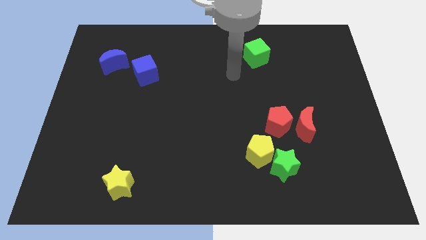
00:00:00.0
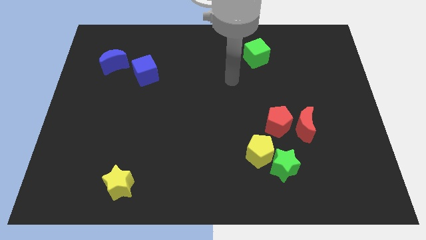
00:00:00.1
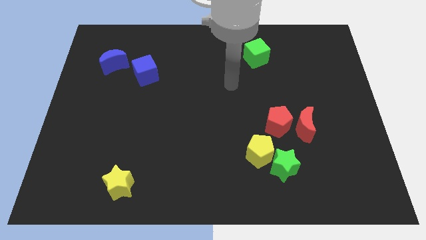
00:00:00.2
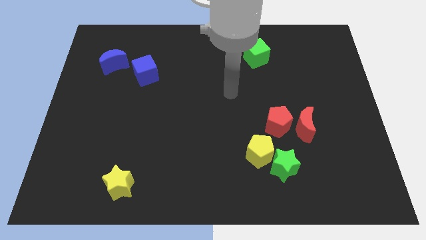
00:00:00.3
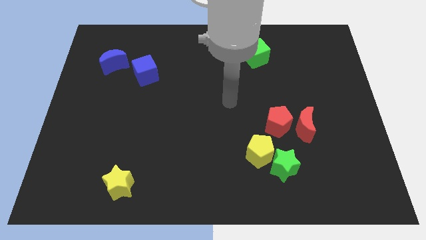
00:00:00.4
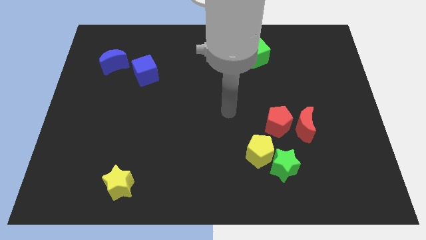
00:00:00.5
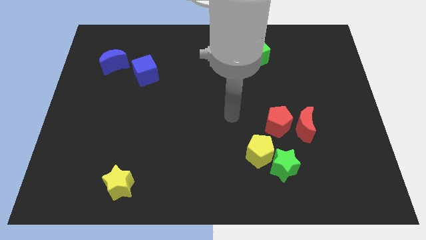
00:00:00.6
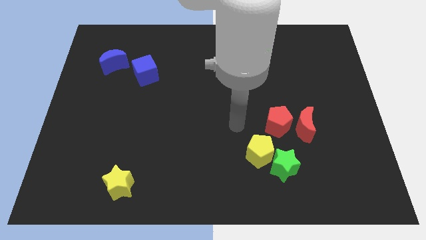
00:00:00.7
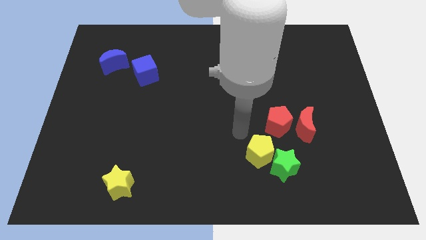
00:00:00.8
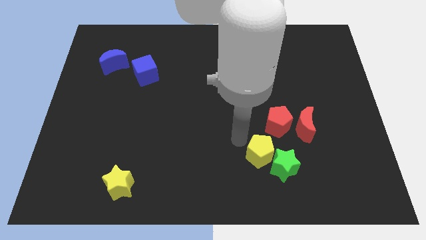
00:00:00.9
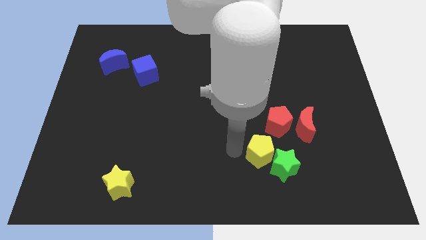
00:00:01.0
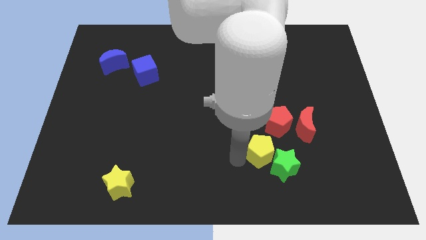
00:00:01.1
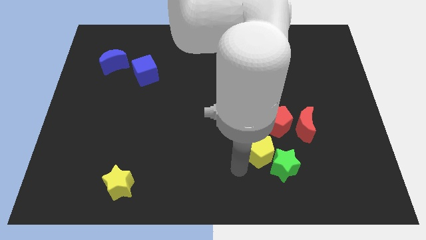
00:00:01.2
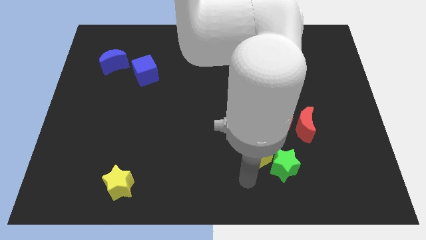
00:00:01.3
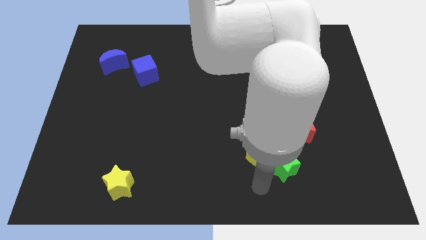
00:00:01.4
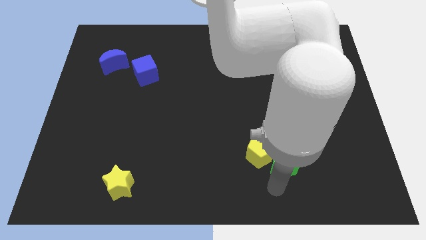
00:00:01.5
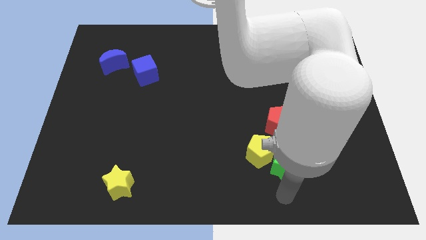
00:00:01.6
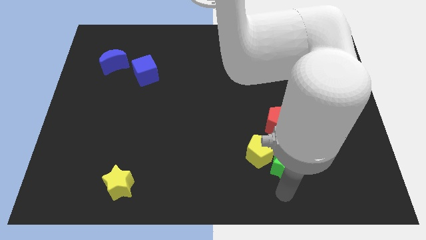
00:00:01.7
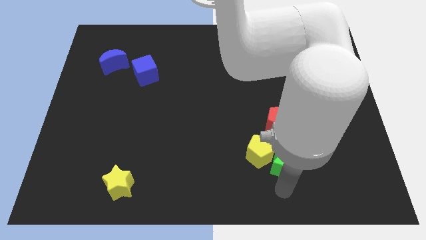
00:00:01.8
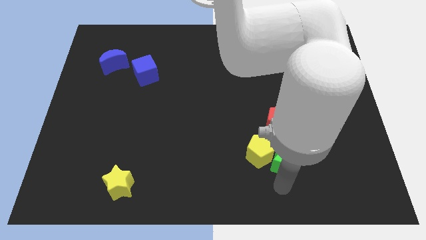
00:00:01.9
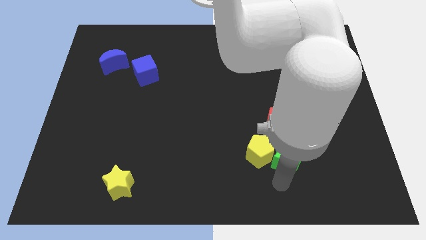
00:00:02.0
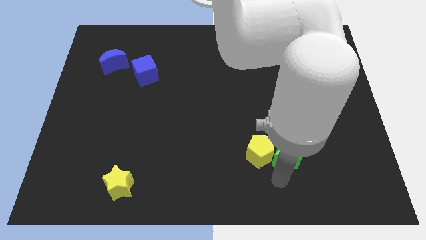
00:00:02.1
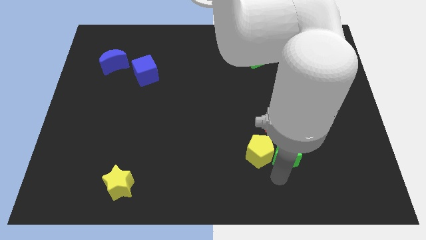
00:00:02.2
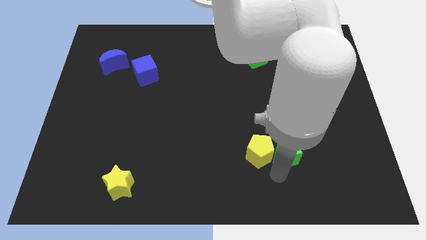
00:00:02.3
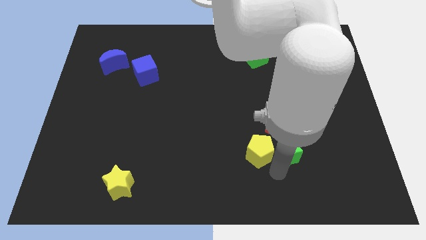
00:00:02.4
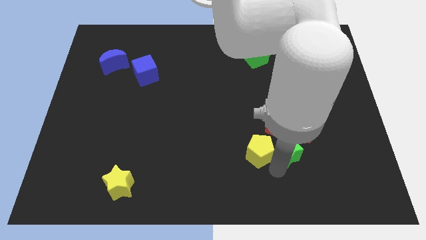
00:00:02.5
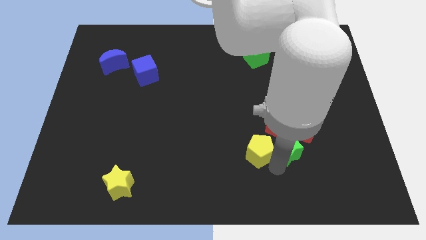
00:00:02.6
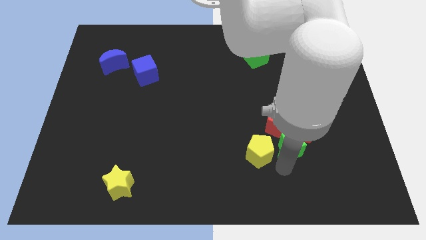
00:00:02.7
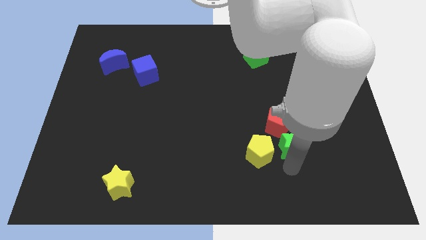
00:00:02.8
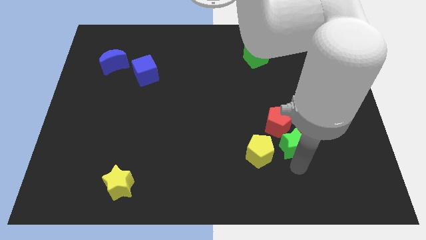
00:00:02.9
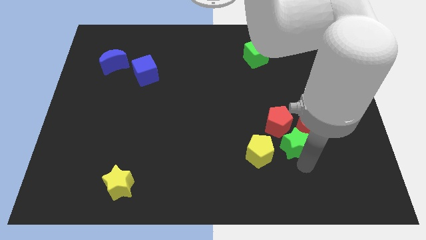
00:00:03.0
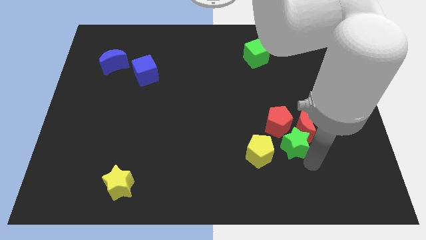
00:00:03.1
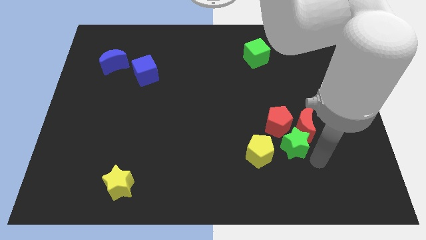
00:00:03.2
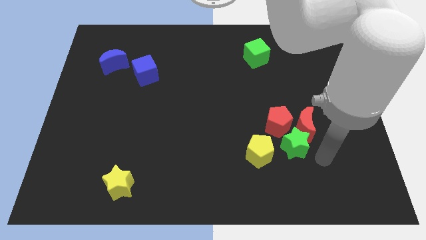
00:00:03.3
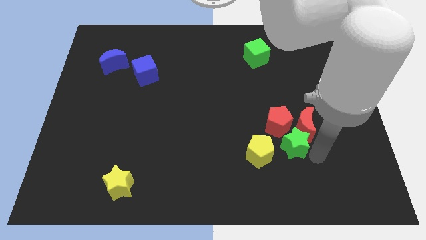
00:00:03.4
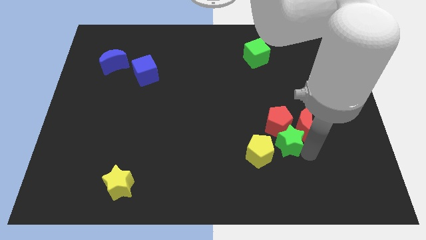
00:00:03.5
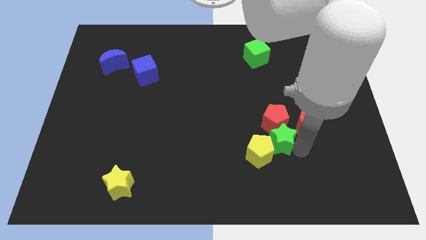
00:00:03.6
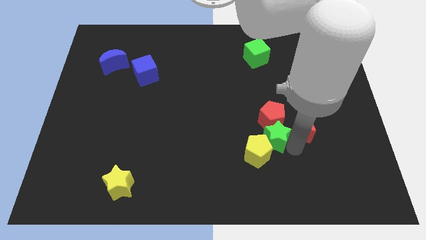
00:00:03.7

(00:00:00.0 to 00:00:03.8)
move the green star somewhat up

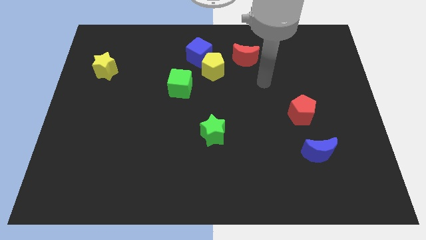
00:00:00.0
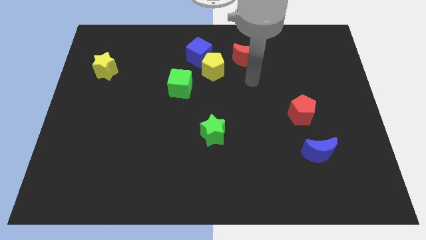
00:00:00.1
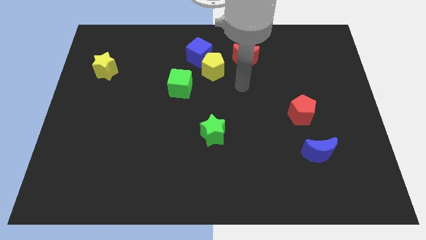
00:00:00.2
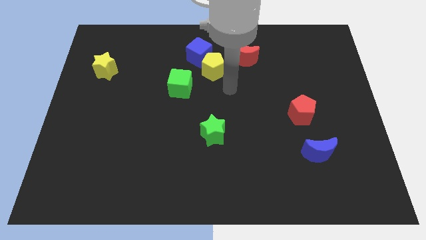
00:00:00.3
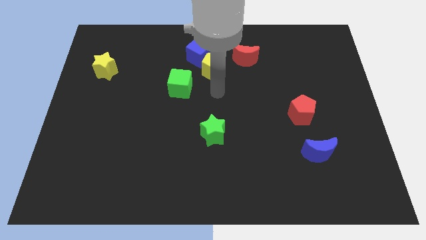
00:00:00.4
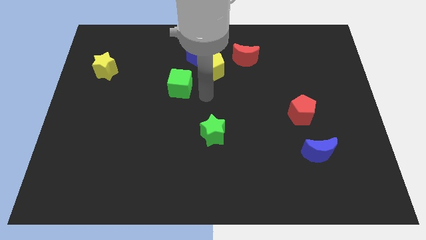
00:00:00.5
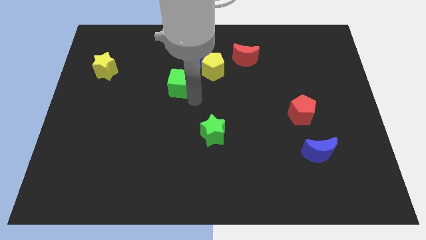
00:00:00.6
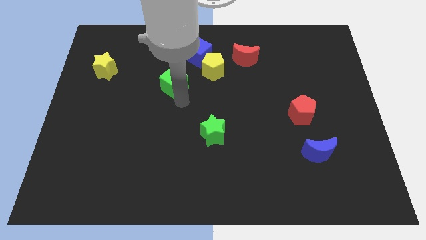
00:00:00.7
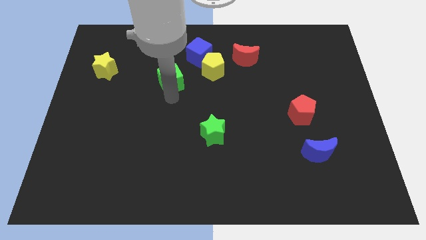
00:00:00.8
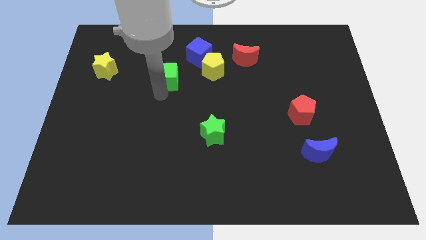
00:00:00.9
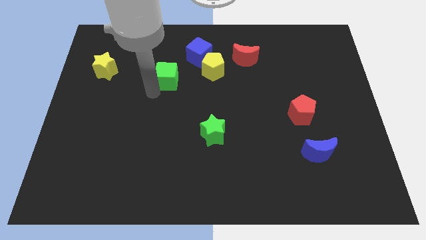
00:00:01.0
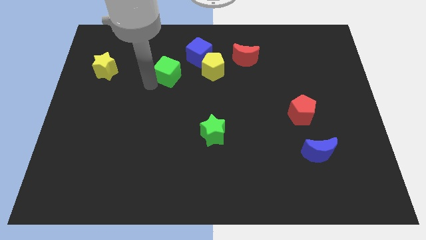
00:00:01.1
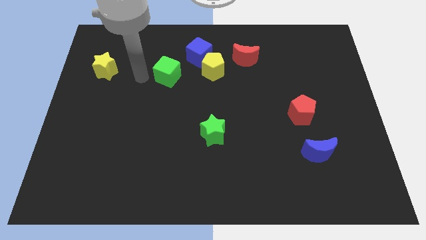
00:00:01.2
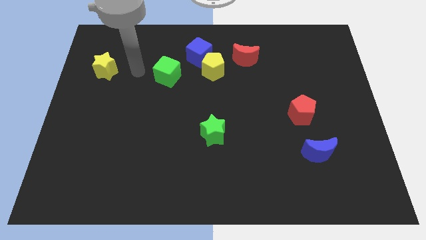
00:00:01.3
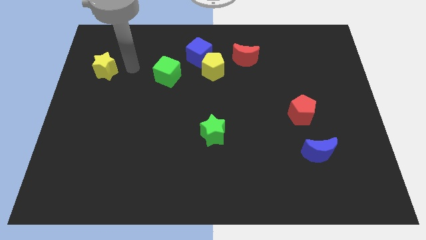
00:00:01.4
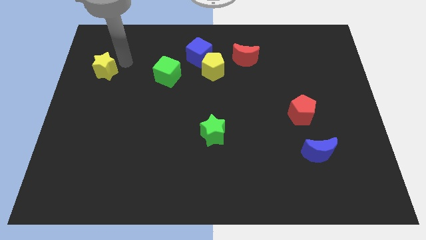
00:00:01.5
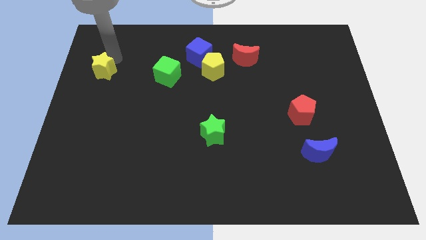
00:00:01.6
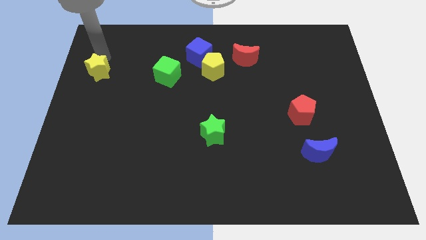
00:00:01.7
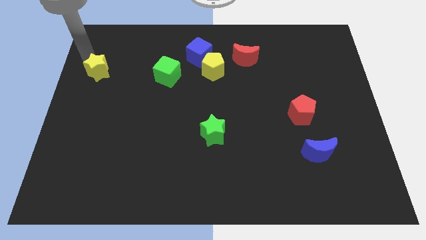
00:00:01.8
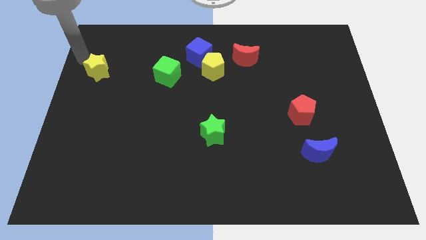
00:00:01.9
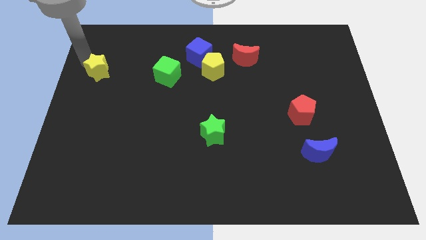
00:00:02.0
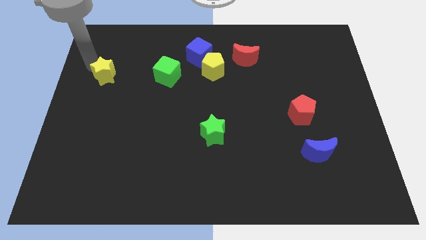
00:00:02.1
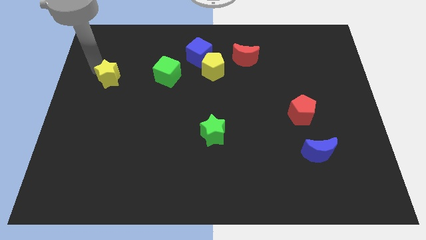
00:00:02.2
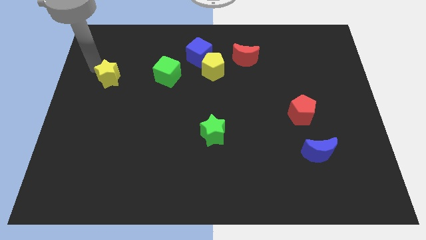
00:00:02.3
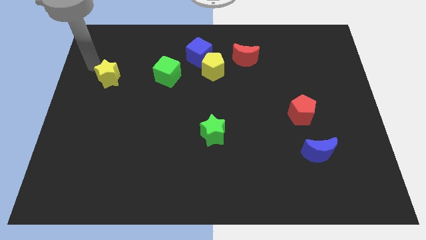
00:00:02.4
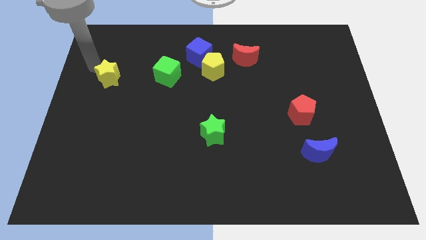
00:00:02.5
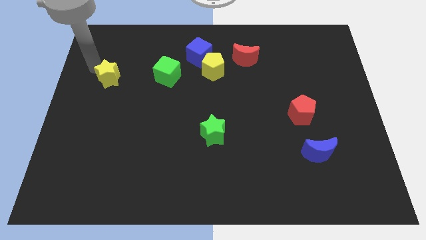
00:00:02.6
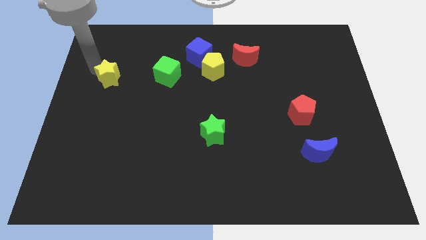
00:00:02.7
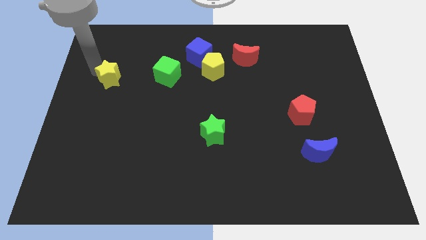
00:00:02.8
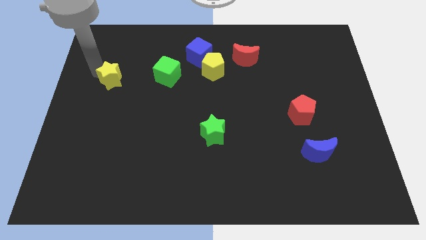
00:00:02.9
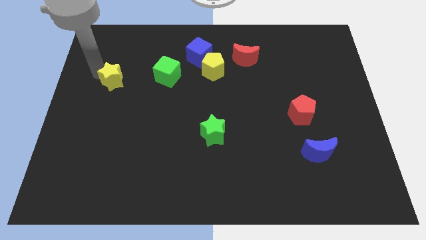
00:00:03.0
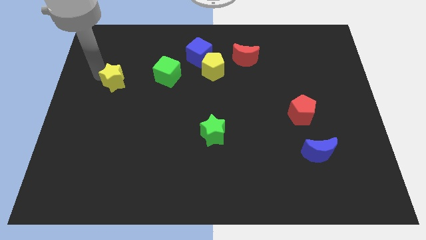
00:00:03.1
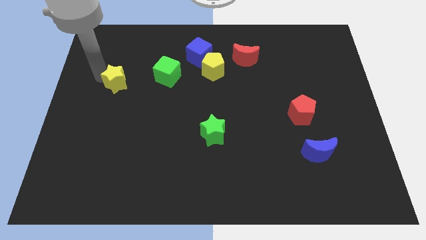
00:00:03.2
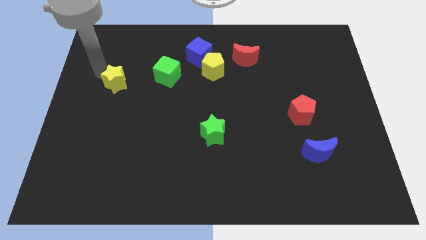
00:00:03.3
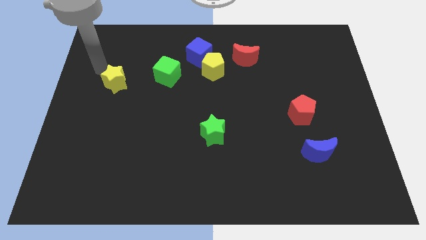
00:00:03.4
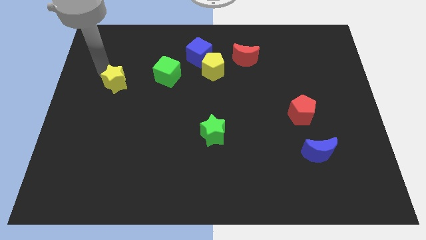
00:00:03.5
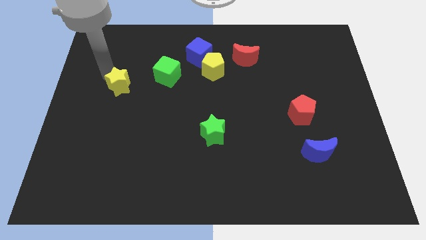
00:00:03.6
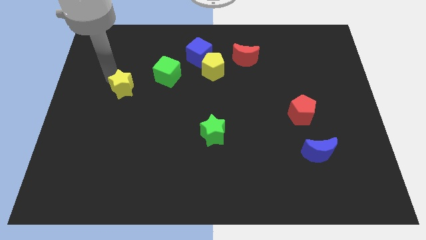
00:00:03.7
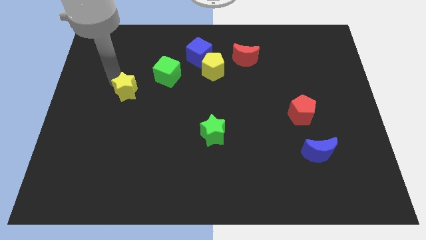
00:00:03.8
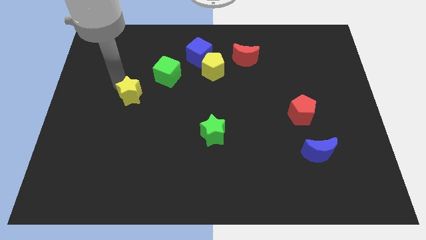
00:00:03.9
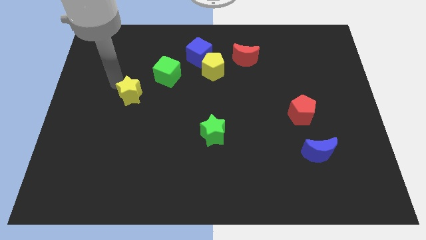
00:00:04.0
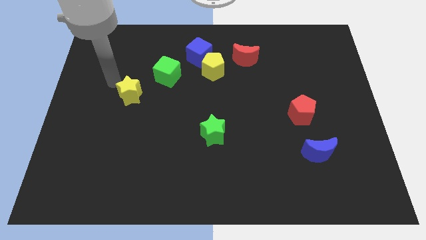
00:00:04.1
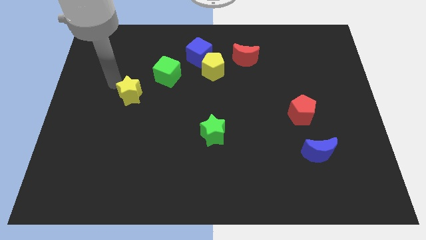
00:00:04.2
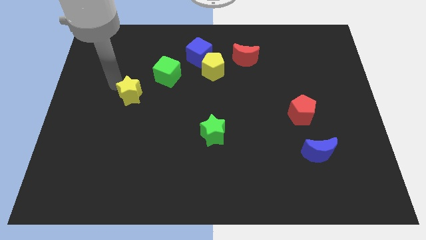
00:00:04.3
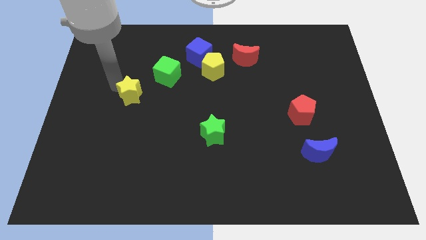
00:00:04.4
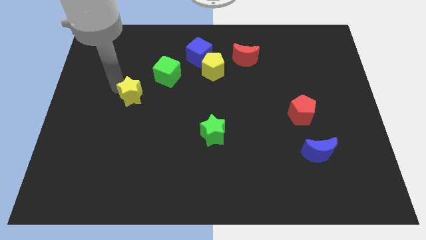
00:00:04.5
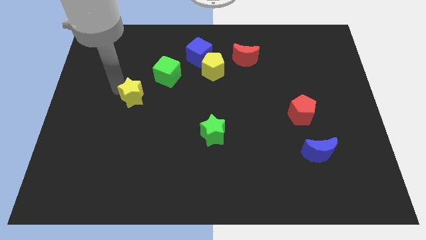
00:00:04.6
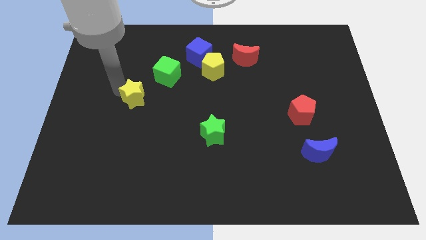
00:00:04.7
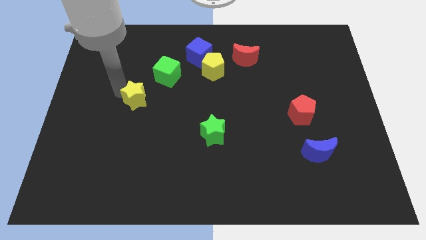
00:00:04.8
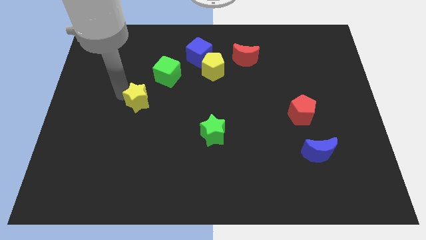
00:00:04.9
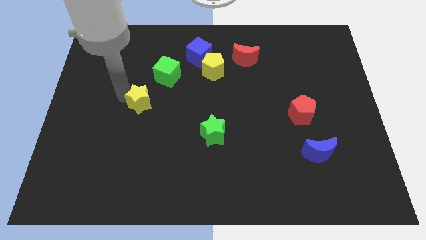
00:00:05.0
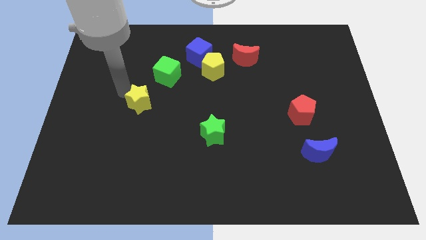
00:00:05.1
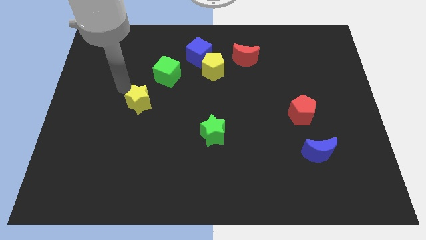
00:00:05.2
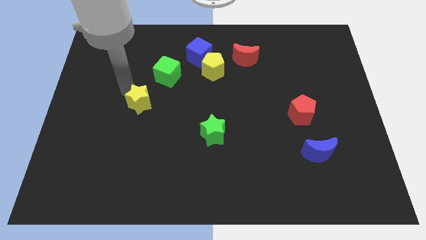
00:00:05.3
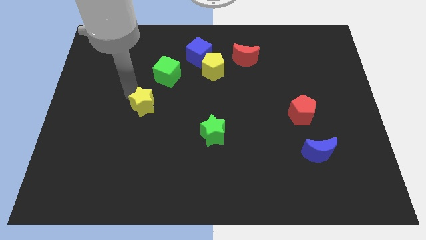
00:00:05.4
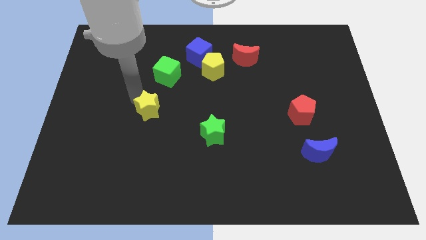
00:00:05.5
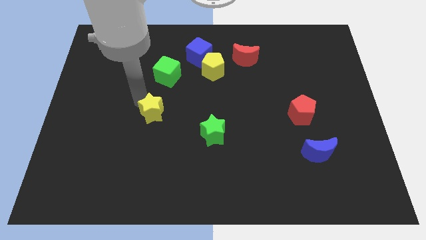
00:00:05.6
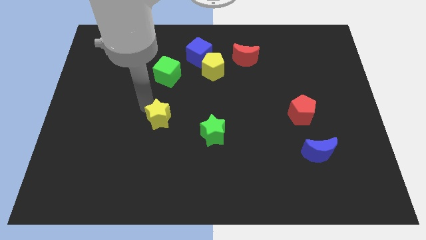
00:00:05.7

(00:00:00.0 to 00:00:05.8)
push the yellow star downwards and then to the right
